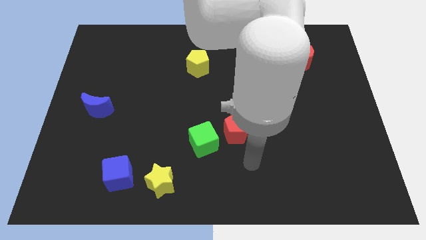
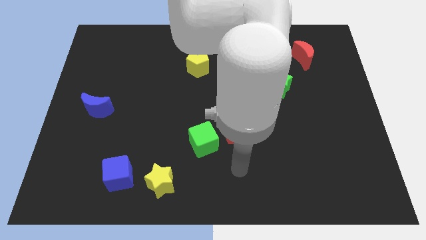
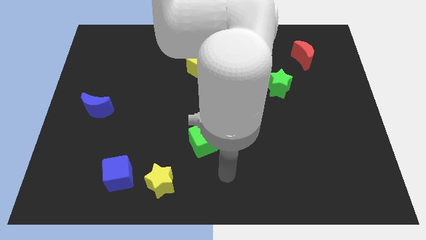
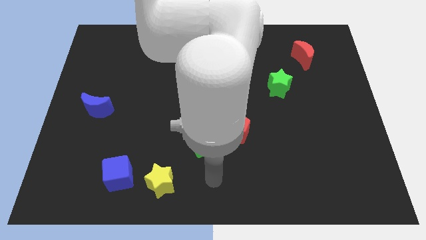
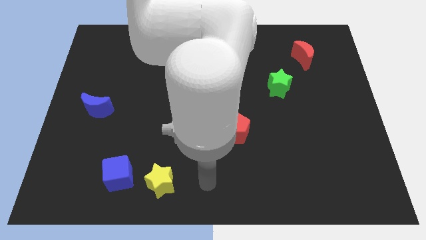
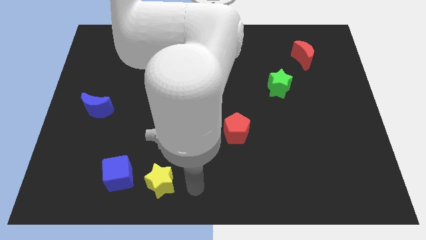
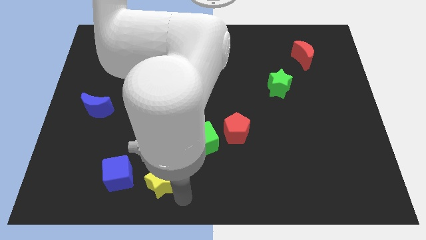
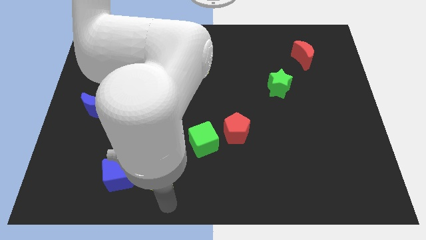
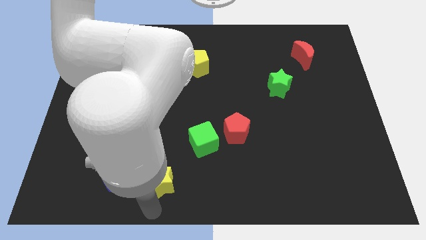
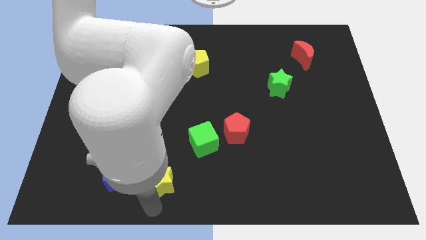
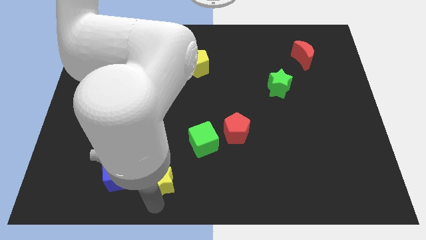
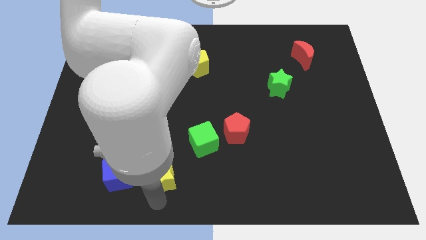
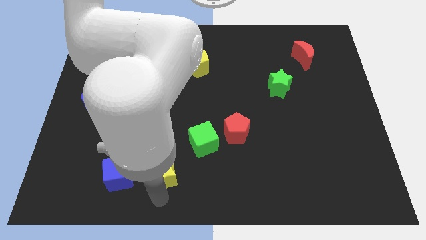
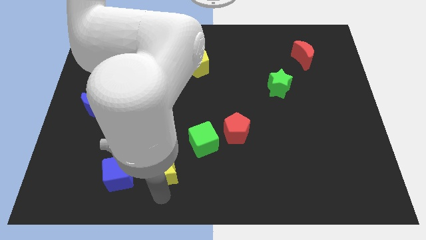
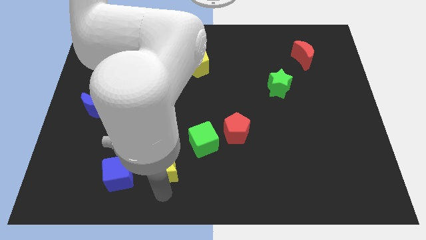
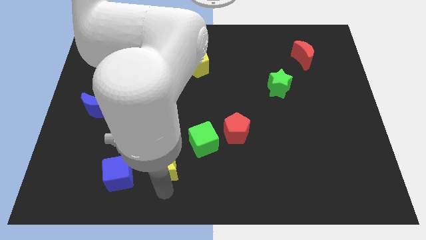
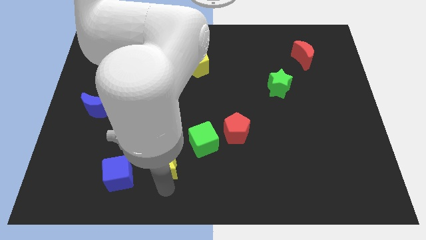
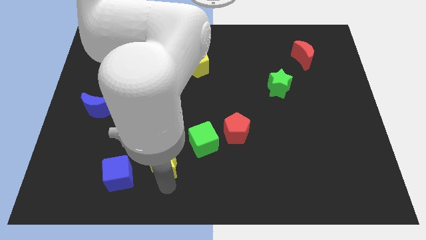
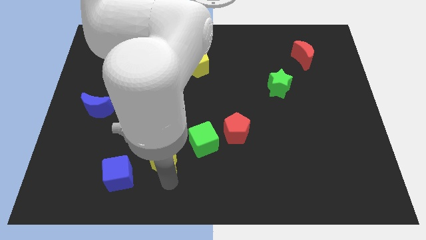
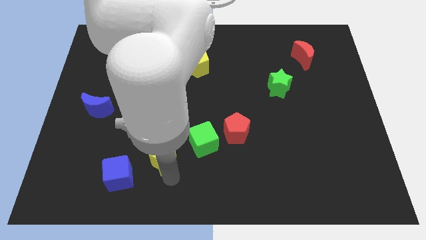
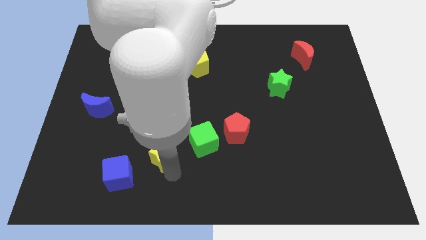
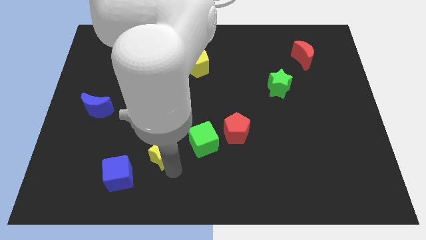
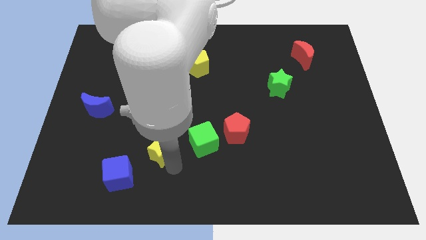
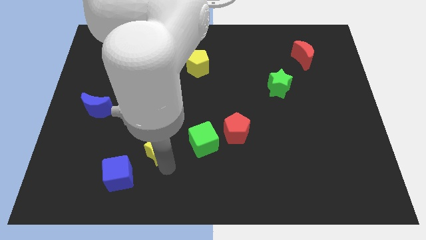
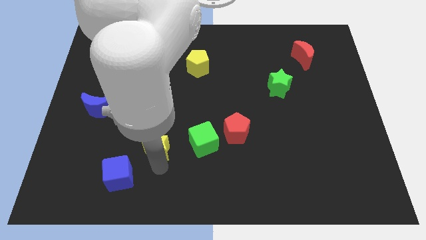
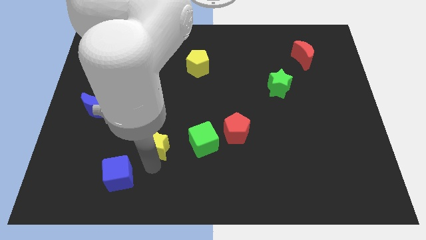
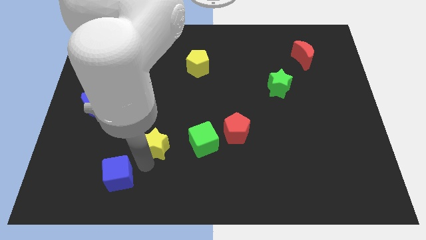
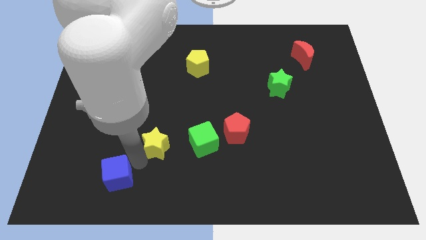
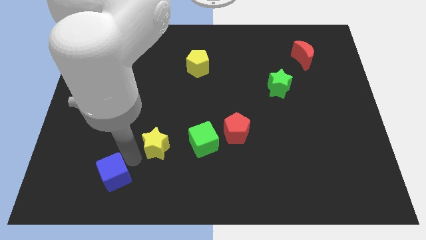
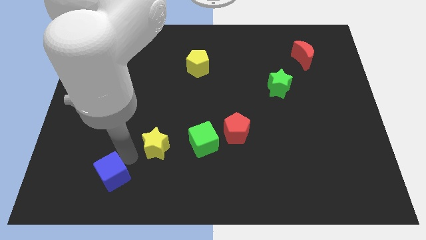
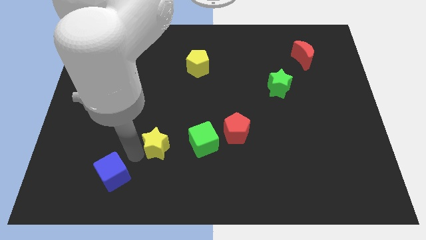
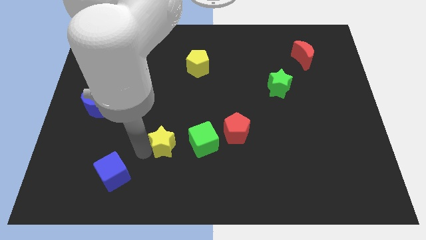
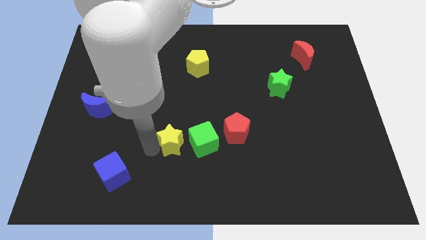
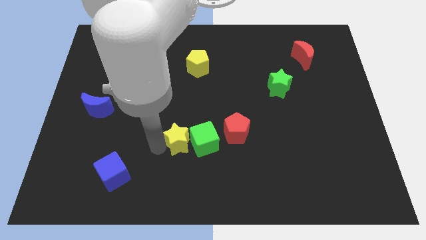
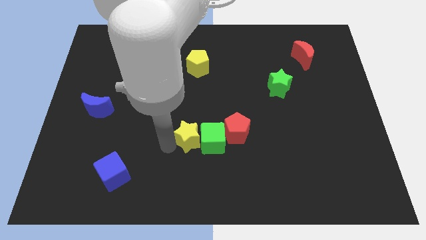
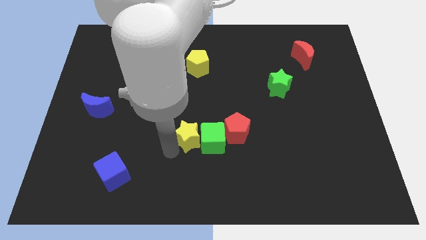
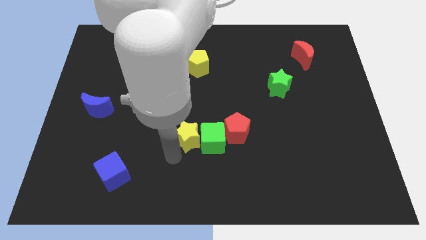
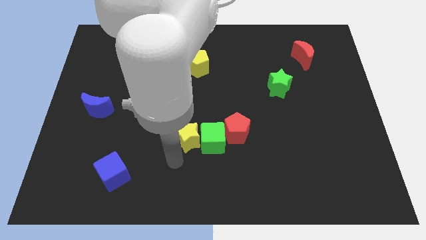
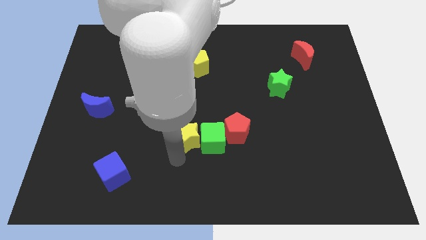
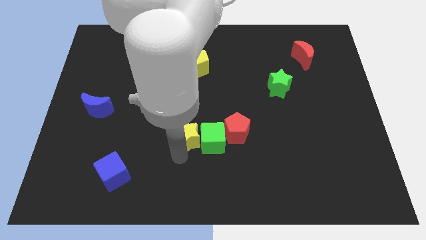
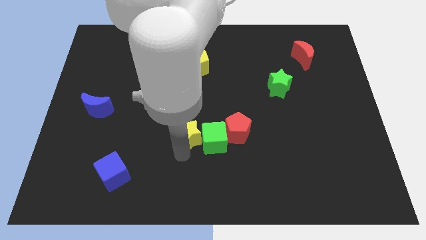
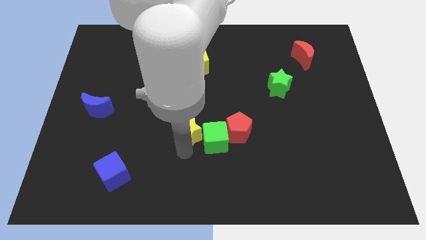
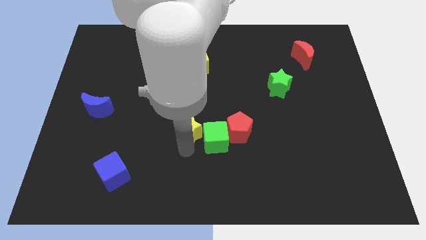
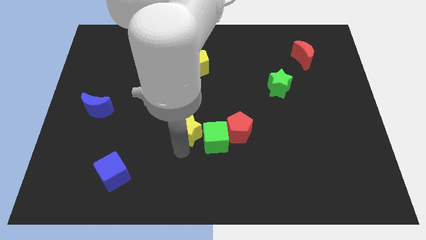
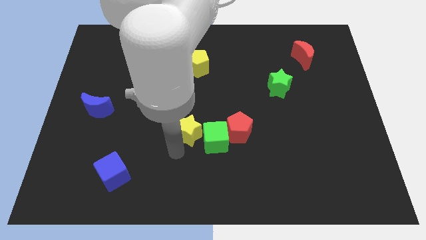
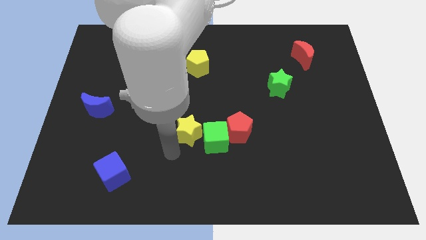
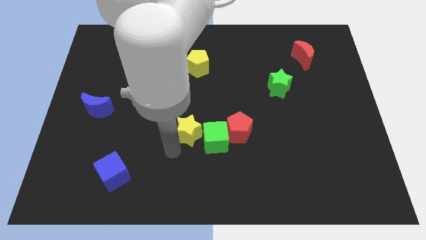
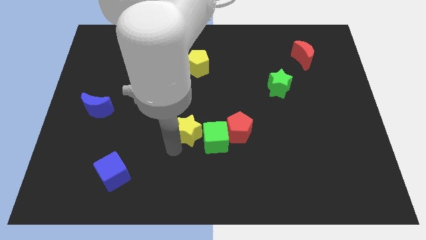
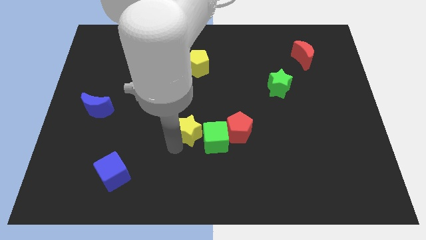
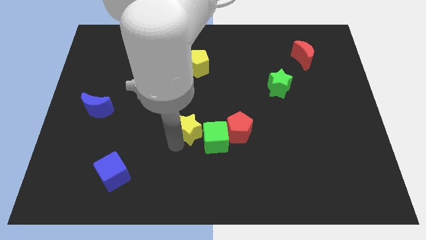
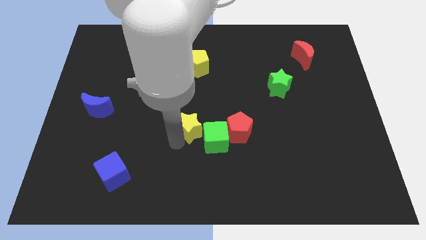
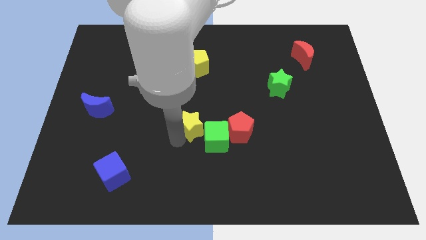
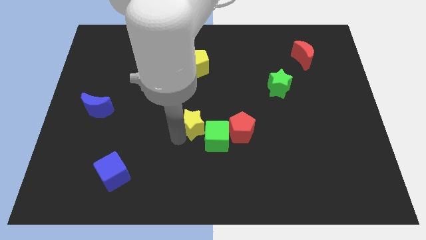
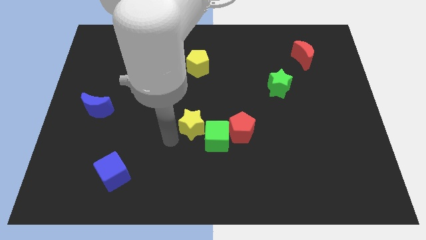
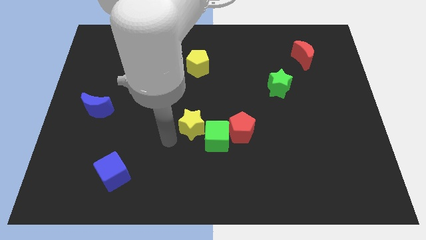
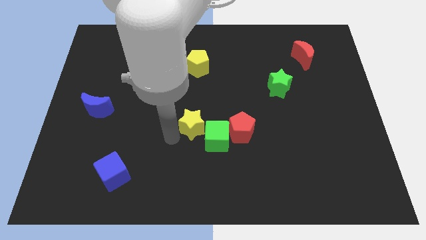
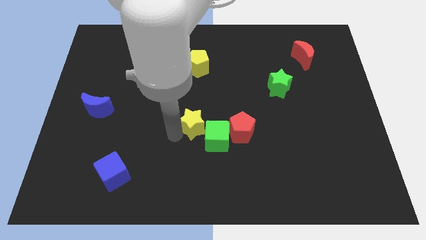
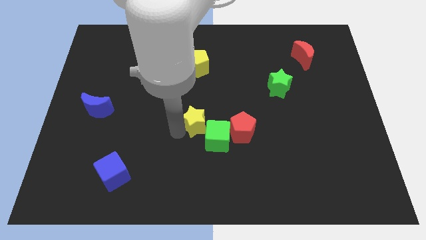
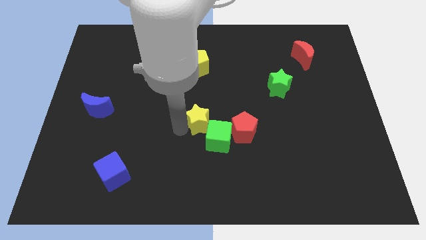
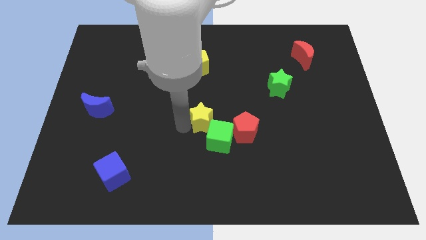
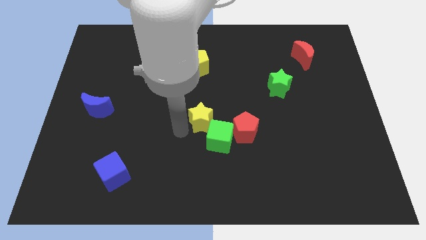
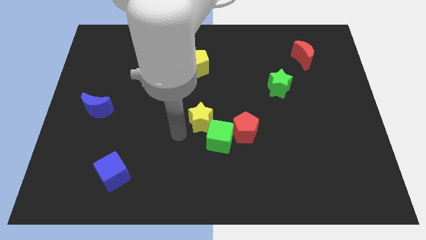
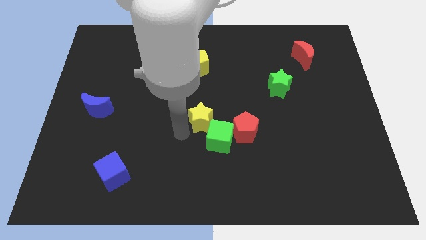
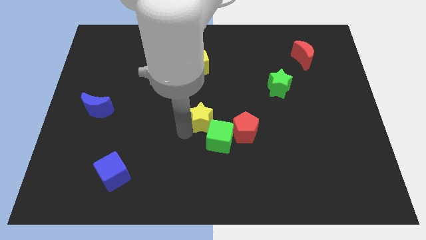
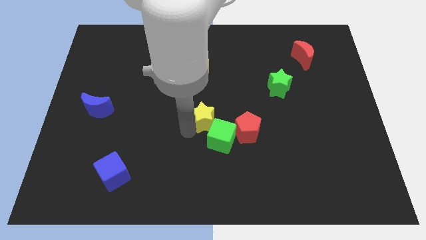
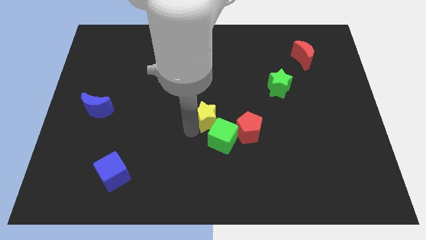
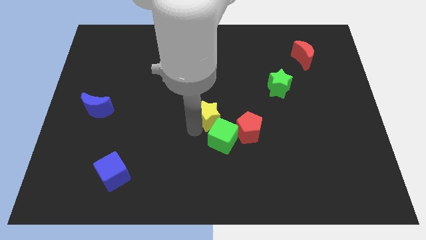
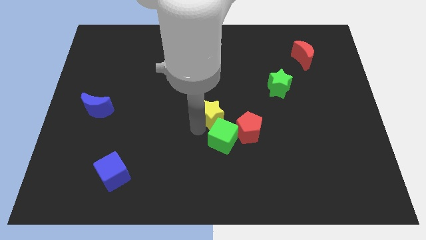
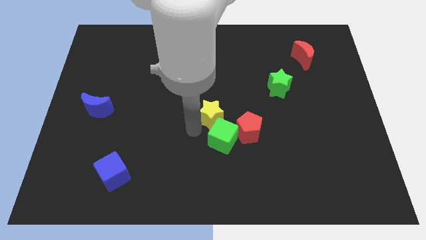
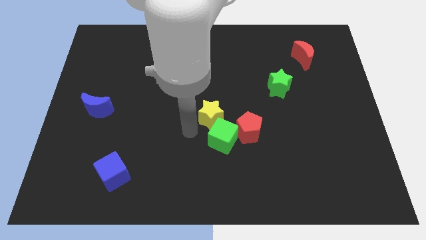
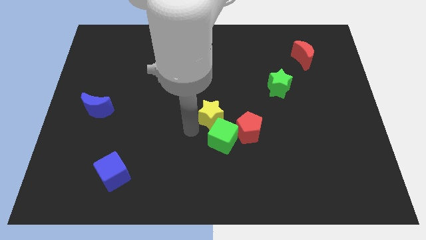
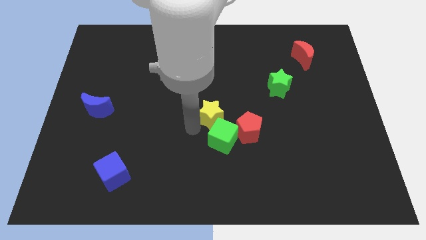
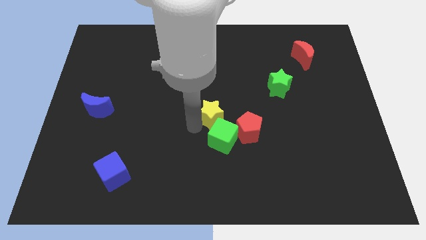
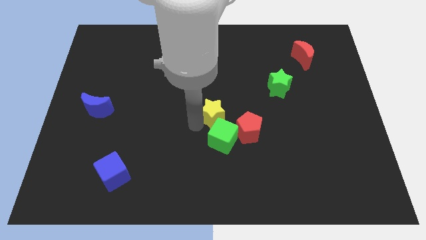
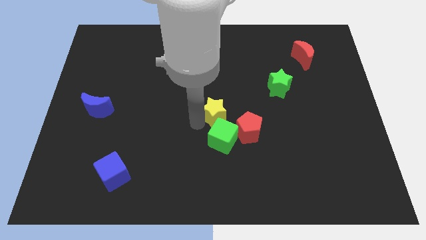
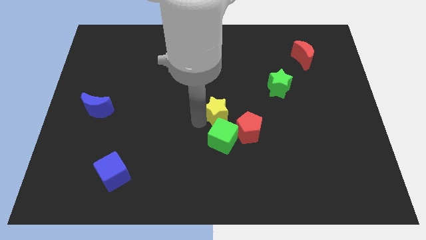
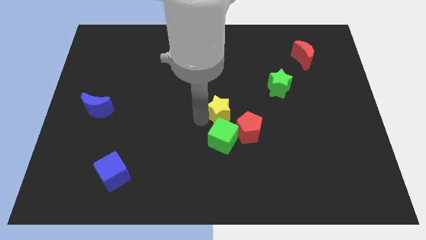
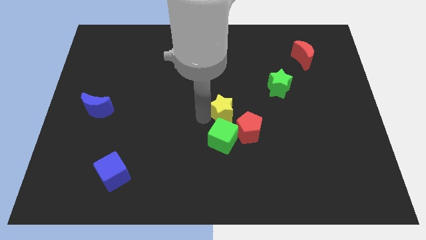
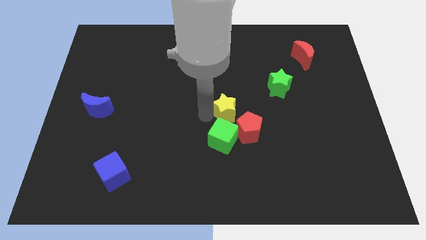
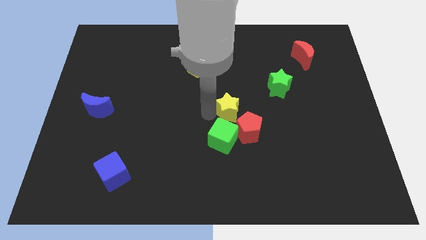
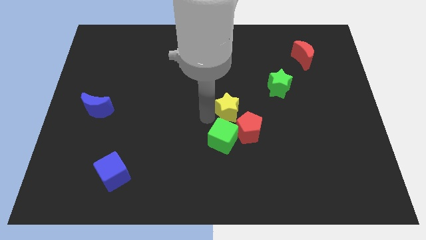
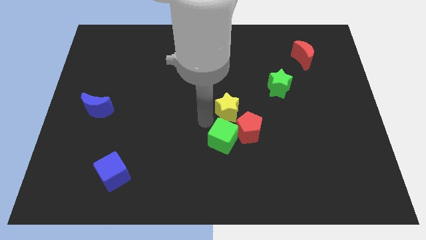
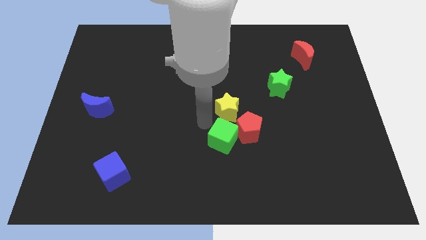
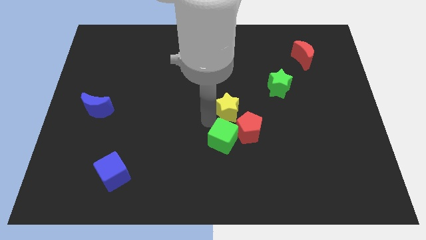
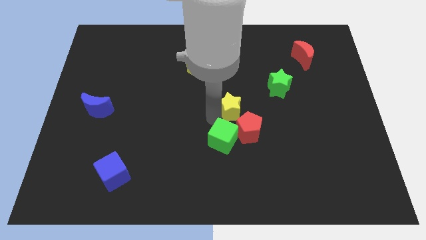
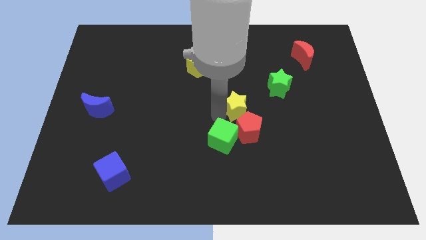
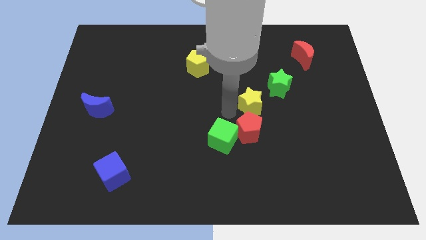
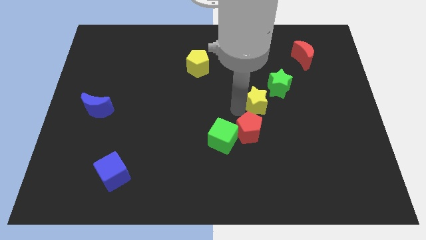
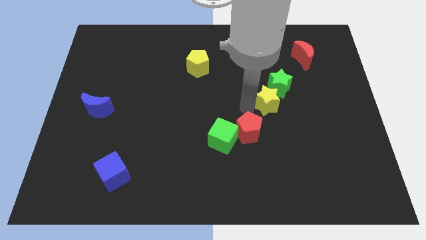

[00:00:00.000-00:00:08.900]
slide the yellow star next to the green star
